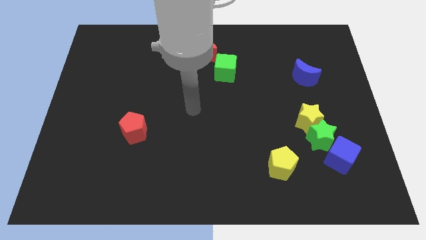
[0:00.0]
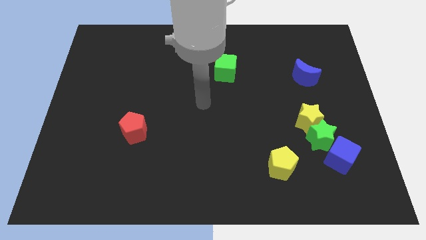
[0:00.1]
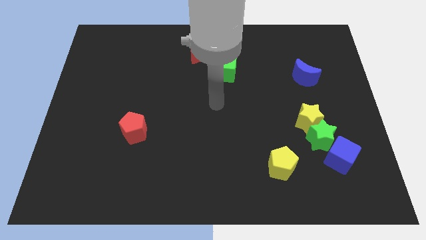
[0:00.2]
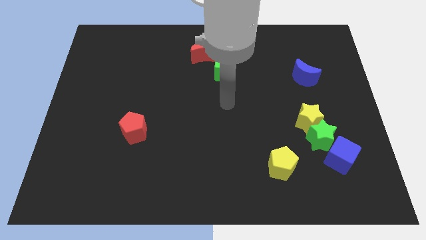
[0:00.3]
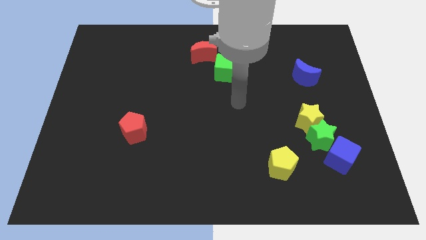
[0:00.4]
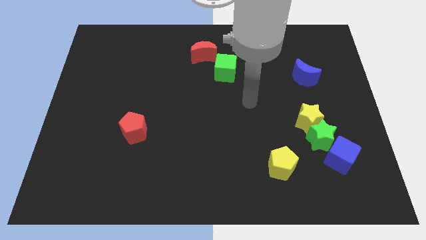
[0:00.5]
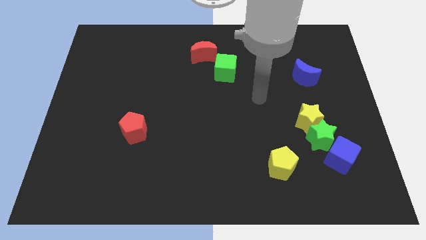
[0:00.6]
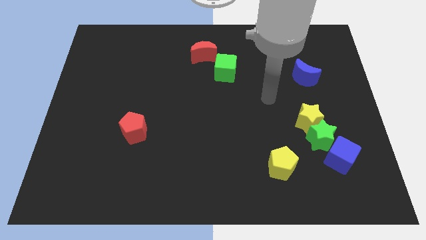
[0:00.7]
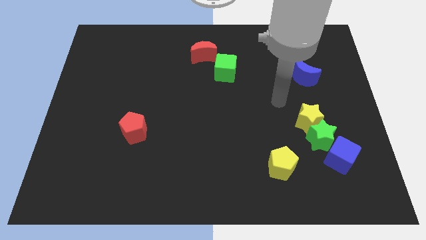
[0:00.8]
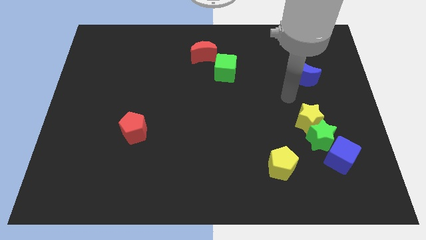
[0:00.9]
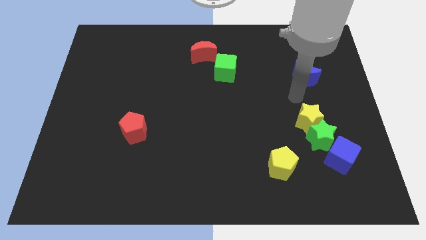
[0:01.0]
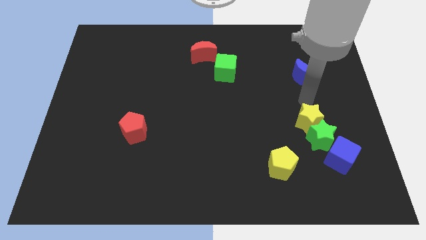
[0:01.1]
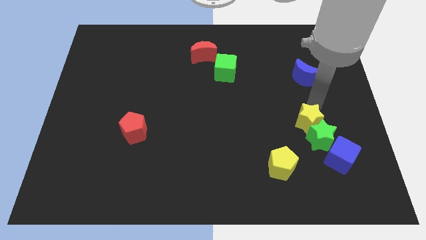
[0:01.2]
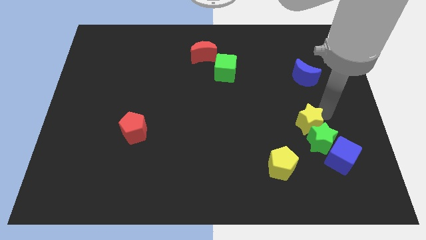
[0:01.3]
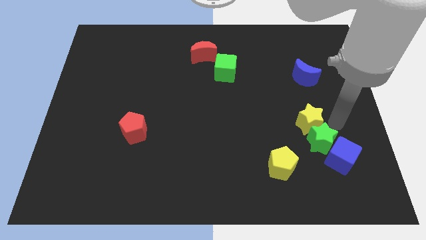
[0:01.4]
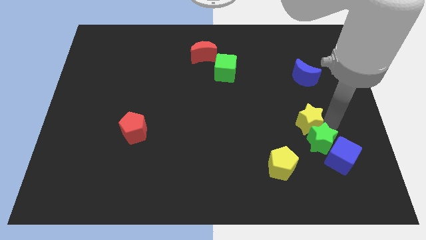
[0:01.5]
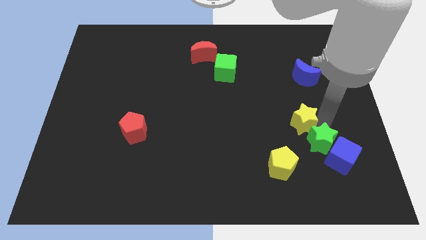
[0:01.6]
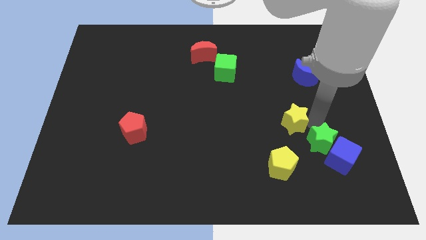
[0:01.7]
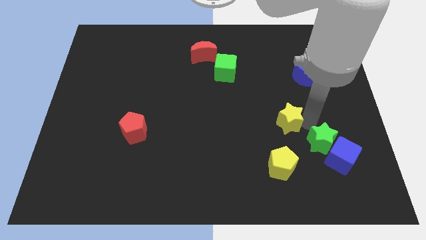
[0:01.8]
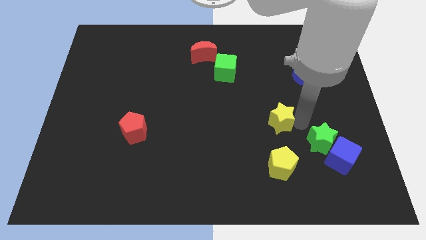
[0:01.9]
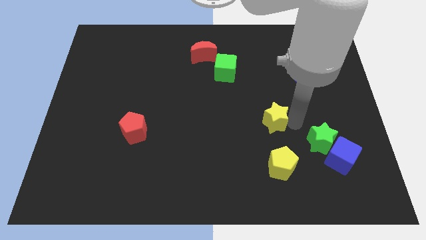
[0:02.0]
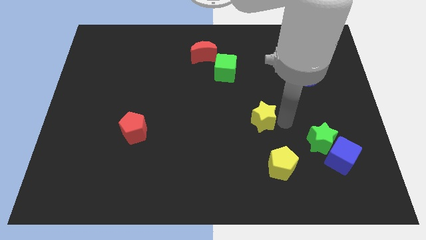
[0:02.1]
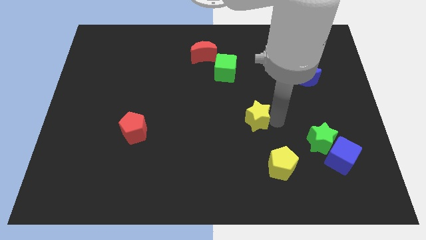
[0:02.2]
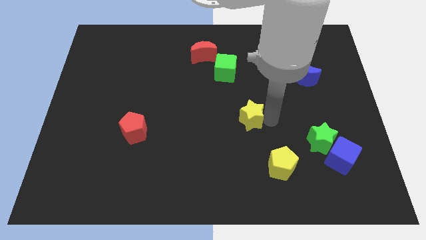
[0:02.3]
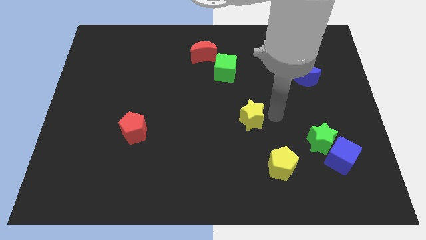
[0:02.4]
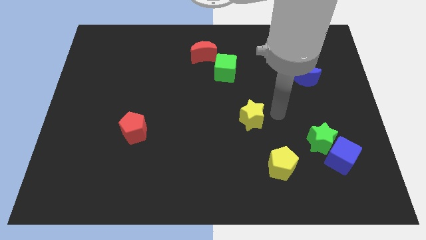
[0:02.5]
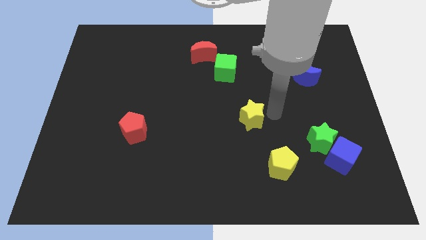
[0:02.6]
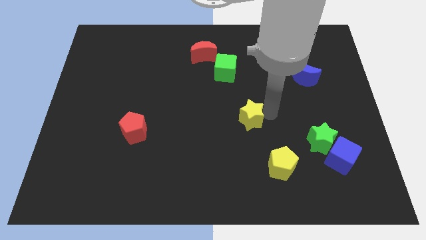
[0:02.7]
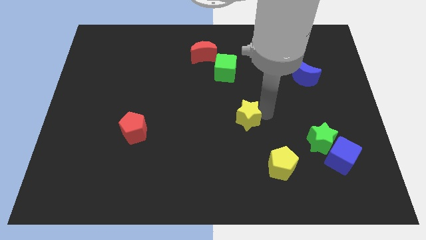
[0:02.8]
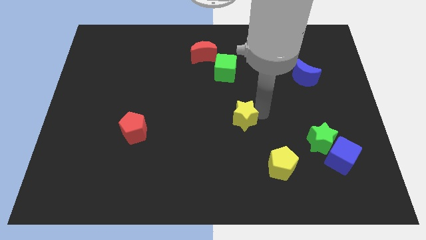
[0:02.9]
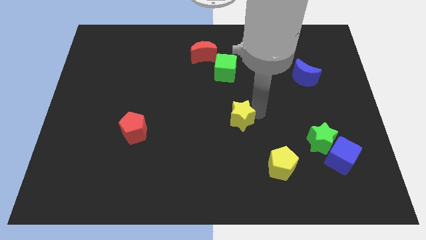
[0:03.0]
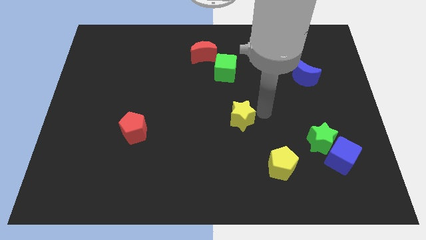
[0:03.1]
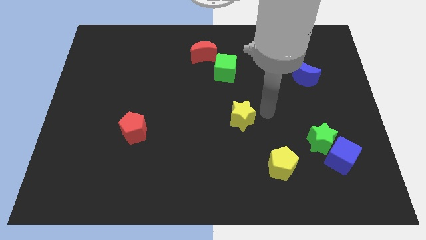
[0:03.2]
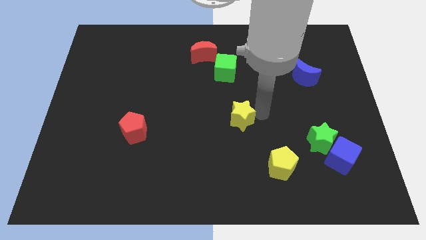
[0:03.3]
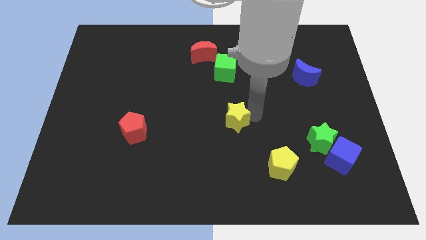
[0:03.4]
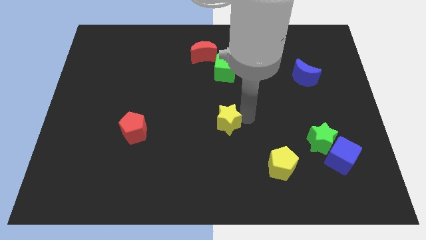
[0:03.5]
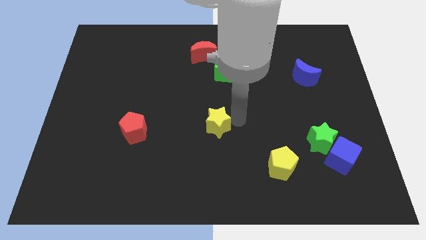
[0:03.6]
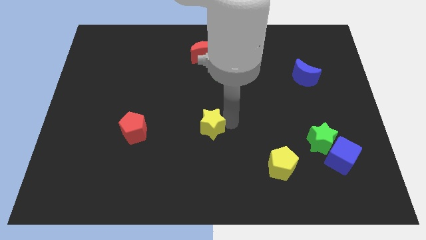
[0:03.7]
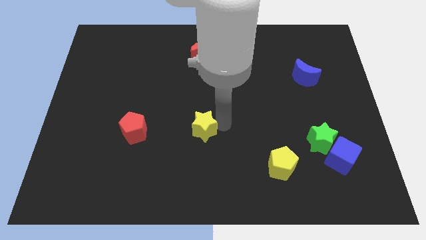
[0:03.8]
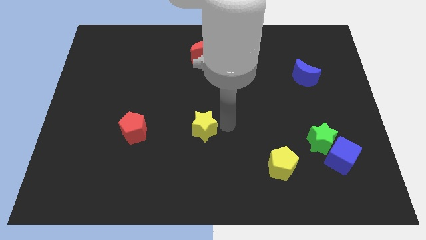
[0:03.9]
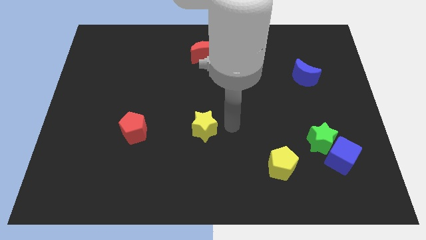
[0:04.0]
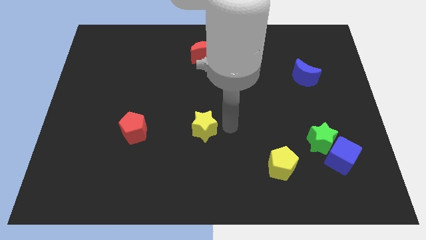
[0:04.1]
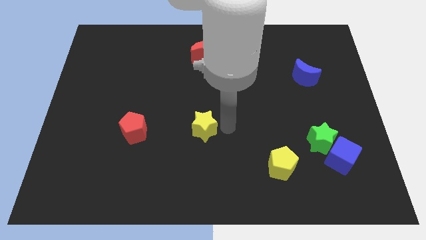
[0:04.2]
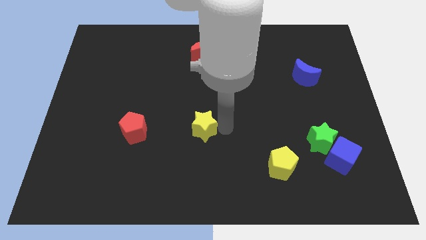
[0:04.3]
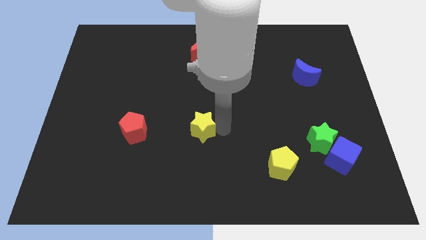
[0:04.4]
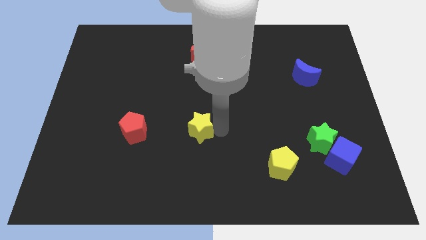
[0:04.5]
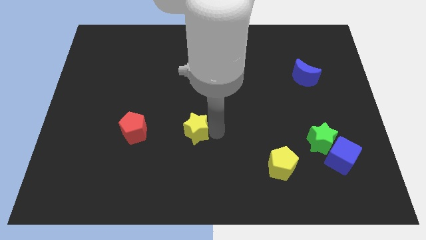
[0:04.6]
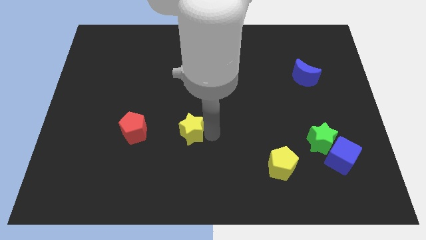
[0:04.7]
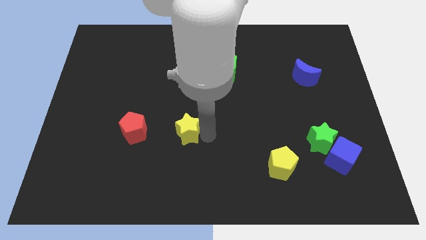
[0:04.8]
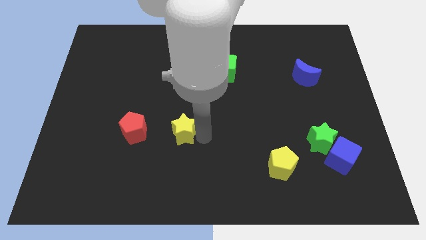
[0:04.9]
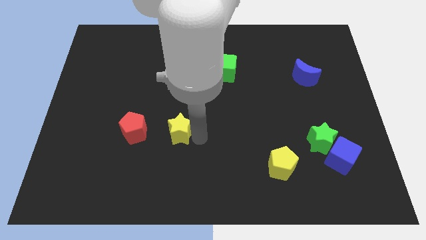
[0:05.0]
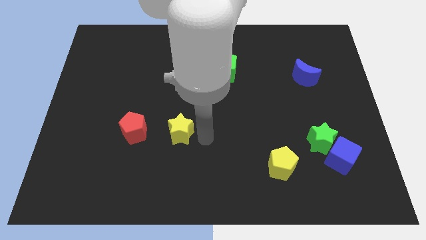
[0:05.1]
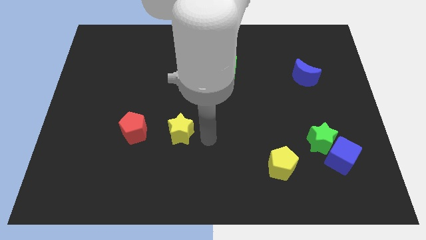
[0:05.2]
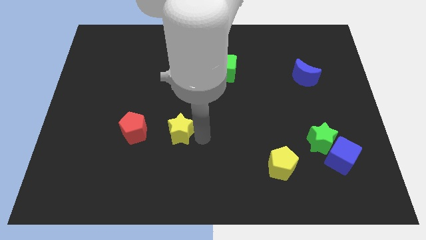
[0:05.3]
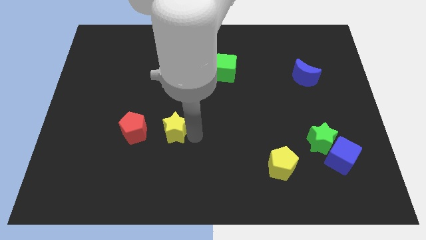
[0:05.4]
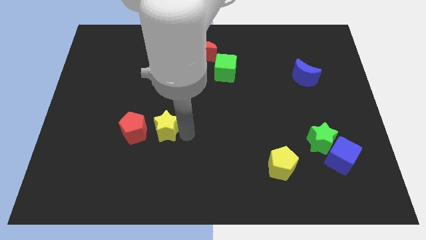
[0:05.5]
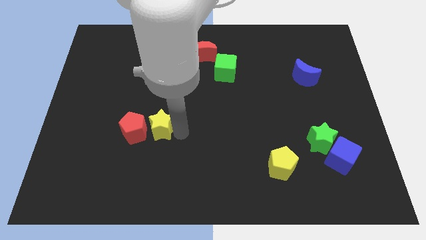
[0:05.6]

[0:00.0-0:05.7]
push the yellow star towards the red pentagon
